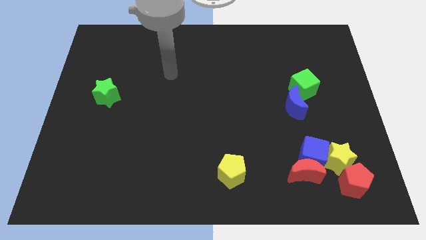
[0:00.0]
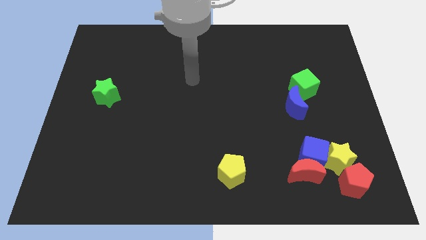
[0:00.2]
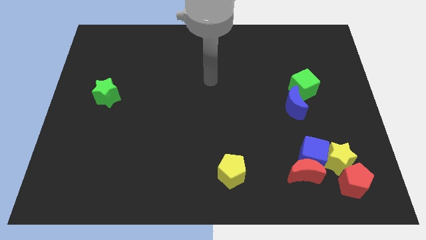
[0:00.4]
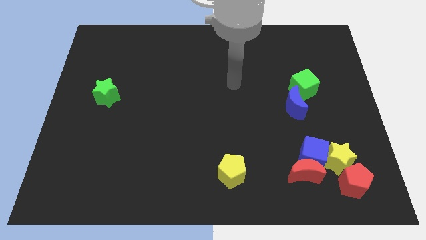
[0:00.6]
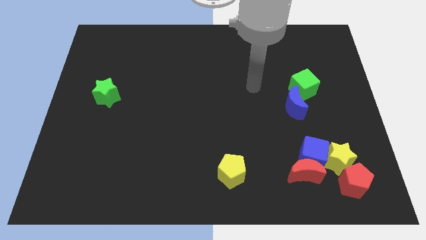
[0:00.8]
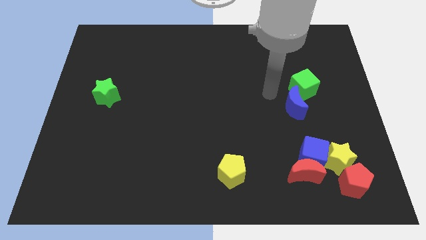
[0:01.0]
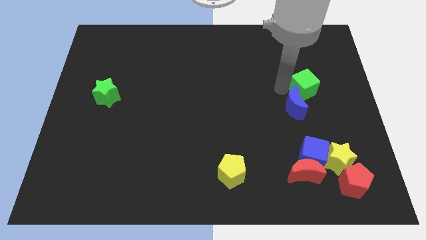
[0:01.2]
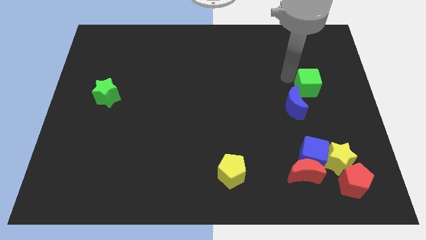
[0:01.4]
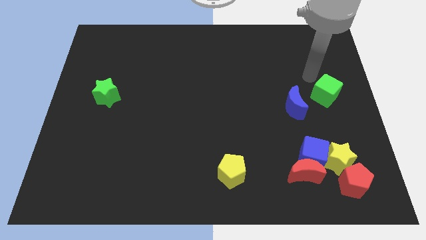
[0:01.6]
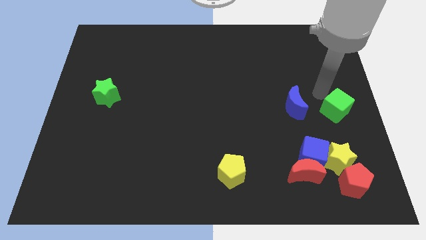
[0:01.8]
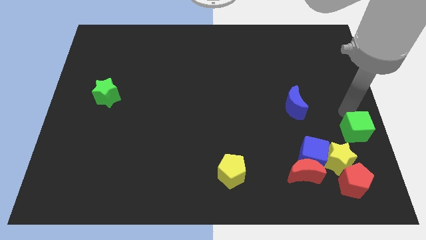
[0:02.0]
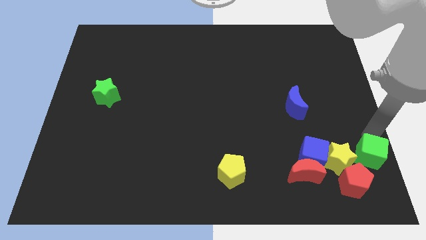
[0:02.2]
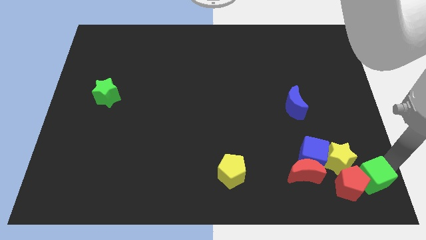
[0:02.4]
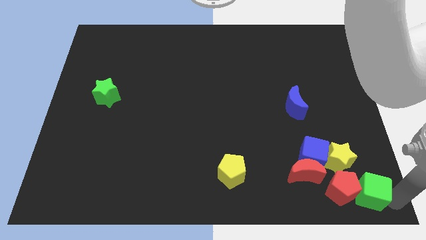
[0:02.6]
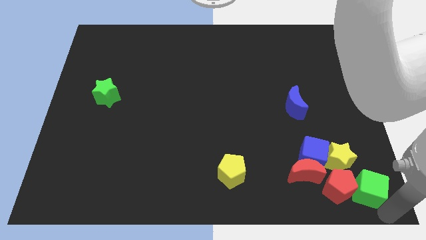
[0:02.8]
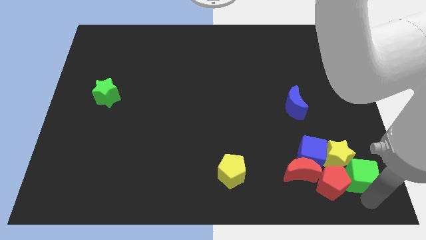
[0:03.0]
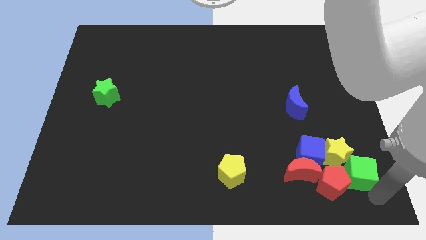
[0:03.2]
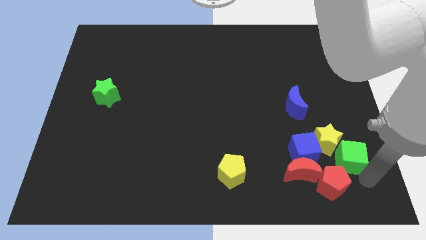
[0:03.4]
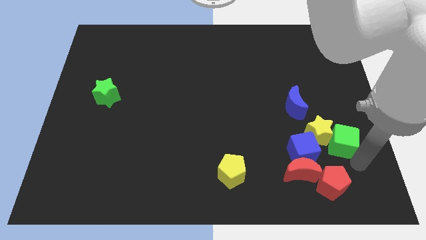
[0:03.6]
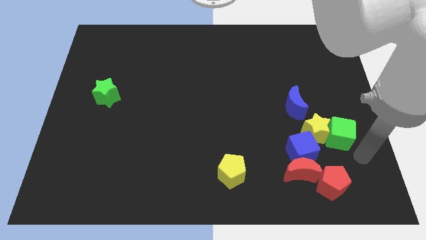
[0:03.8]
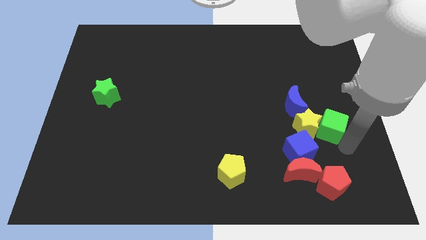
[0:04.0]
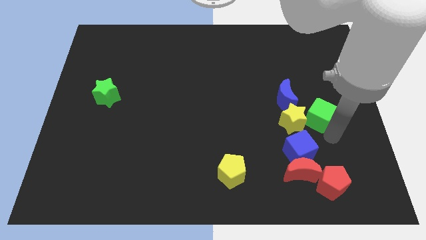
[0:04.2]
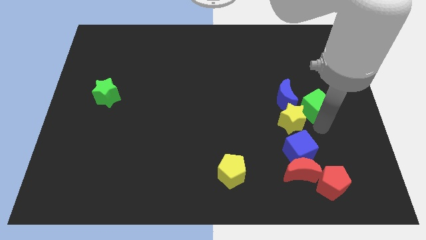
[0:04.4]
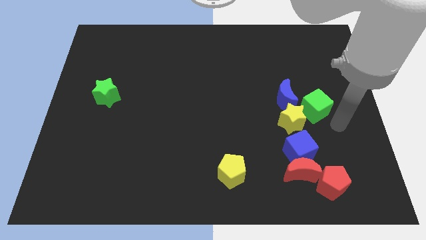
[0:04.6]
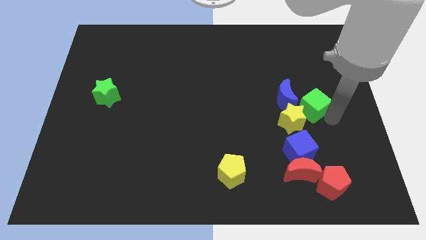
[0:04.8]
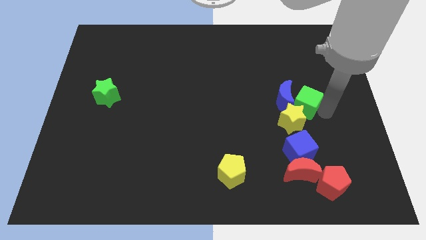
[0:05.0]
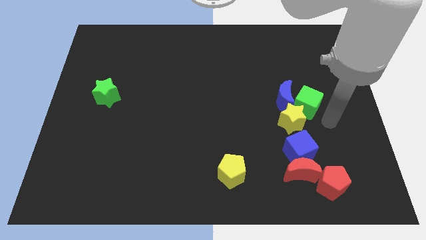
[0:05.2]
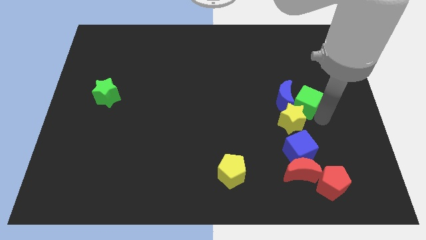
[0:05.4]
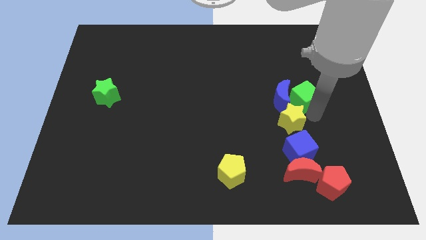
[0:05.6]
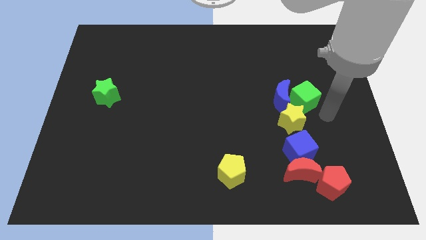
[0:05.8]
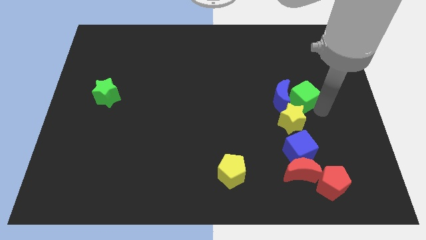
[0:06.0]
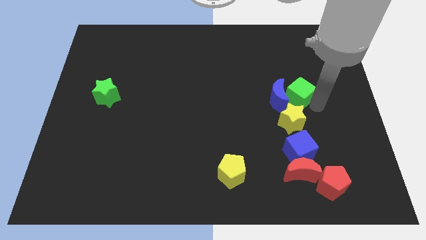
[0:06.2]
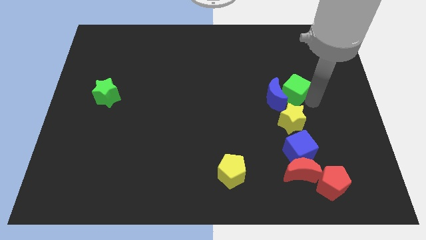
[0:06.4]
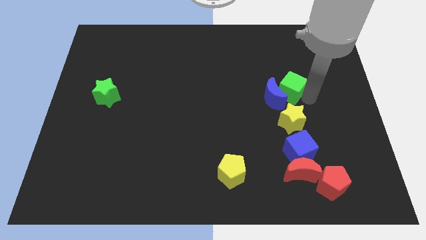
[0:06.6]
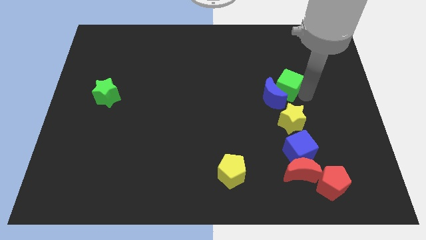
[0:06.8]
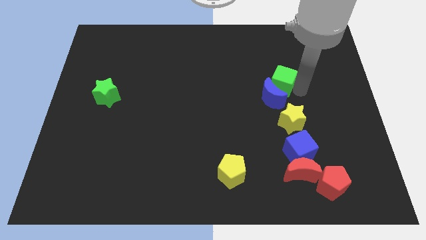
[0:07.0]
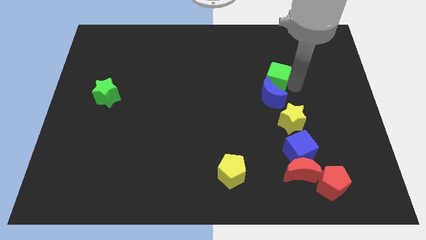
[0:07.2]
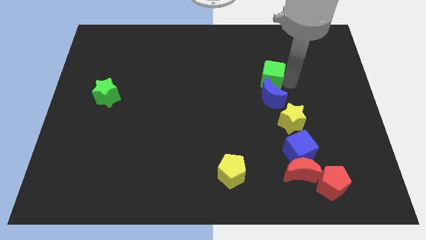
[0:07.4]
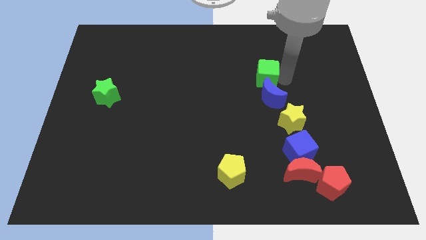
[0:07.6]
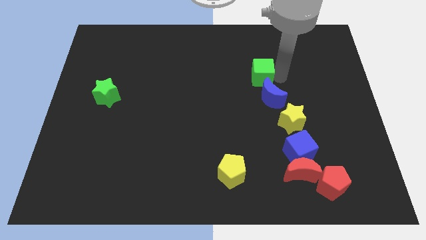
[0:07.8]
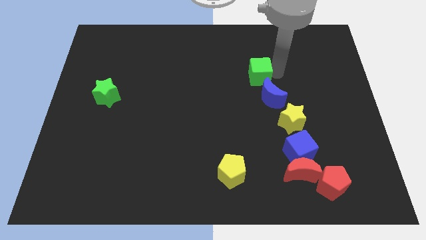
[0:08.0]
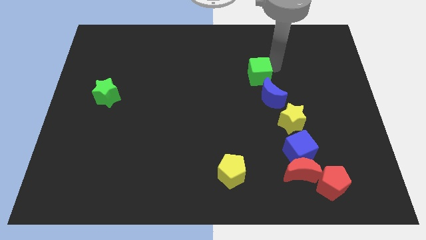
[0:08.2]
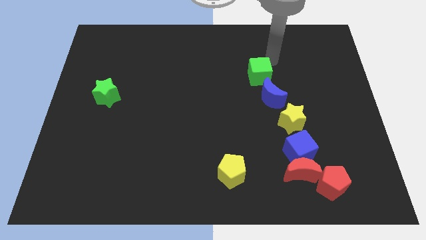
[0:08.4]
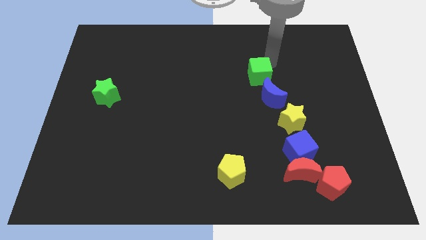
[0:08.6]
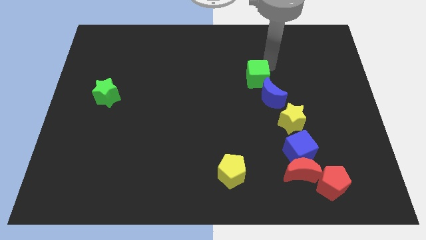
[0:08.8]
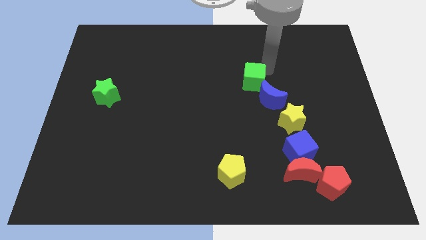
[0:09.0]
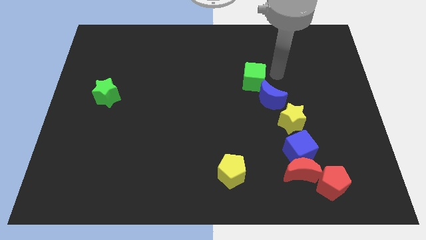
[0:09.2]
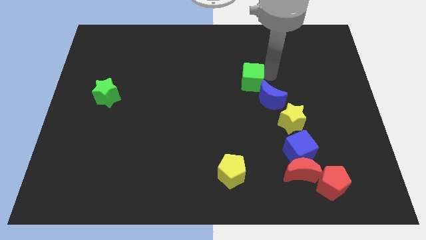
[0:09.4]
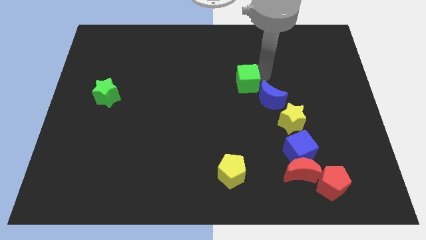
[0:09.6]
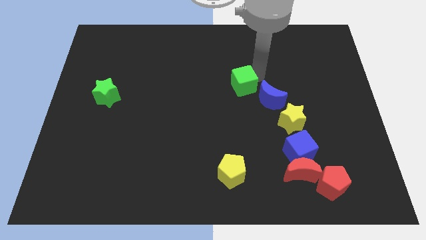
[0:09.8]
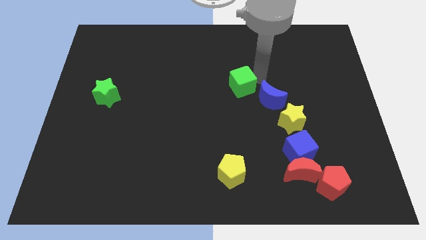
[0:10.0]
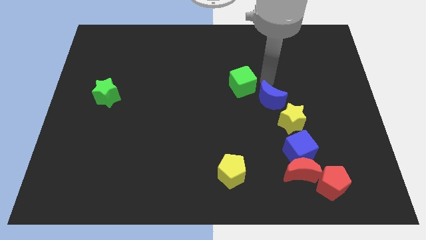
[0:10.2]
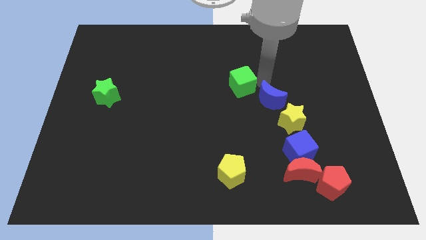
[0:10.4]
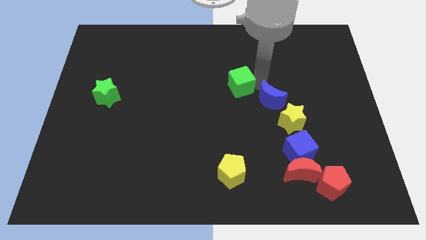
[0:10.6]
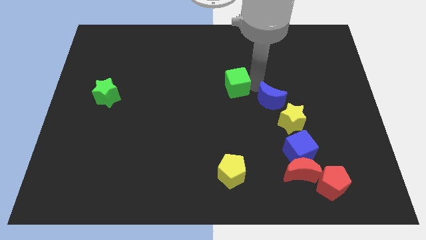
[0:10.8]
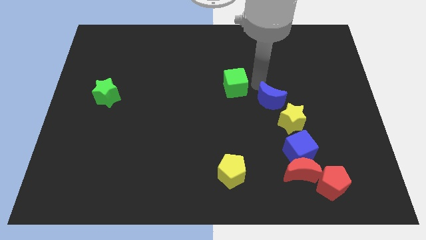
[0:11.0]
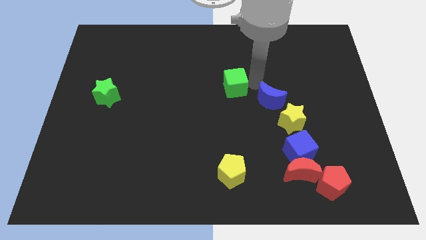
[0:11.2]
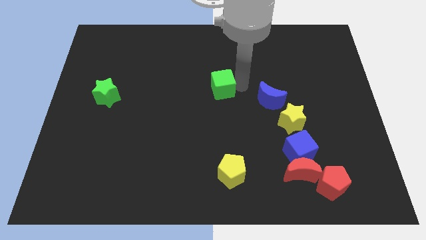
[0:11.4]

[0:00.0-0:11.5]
move the green cube to the left

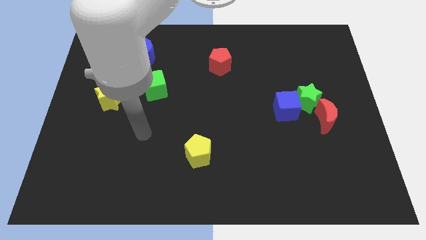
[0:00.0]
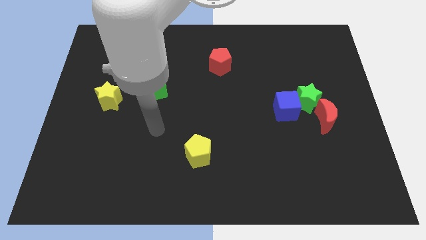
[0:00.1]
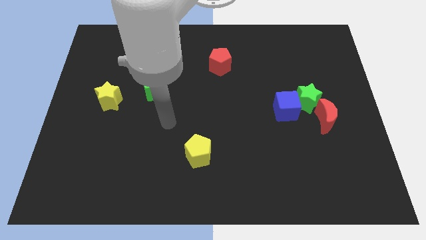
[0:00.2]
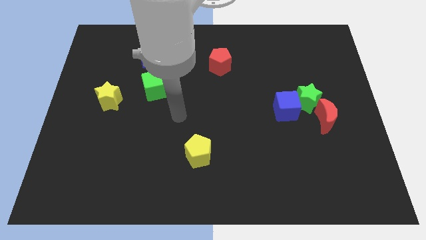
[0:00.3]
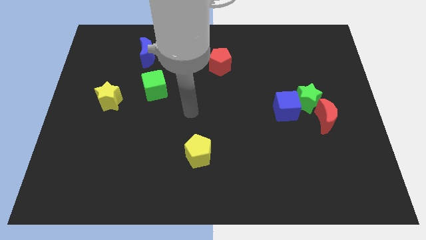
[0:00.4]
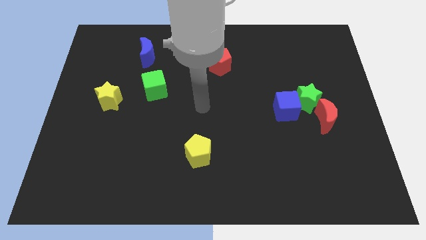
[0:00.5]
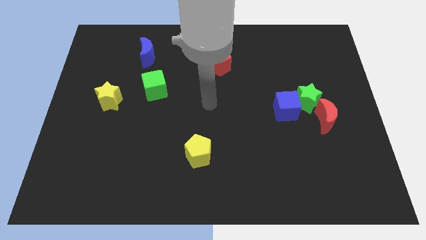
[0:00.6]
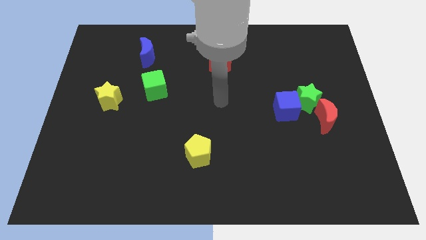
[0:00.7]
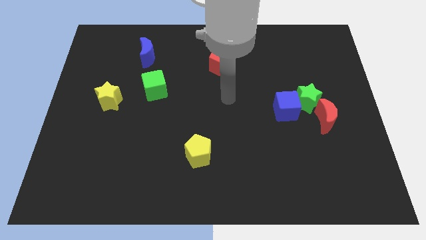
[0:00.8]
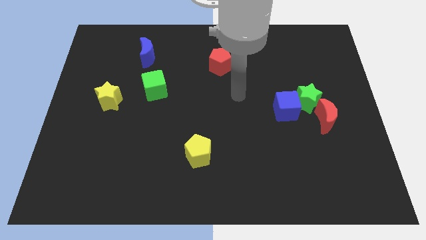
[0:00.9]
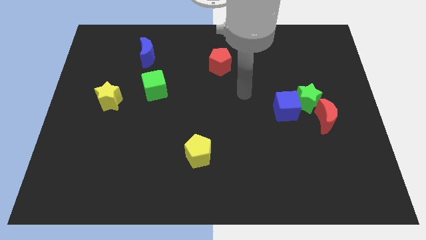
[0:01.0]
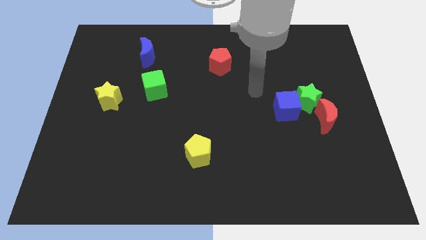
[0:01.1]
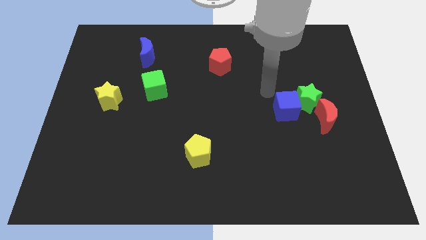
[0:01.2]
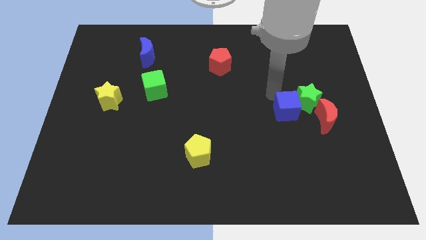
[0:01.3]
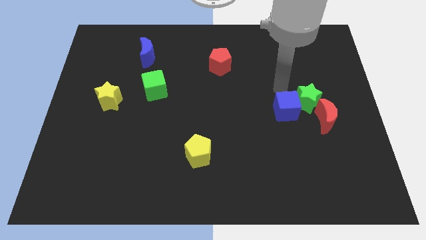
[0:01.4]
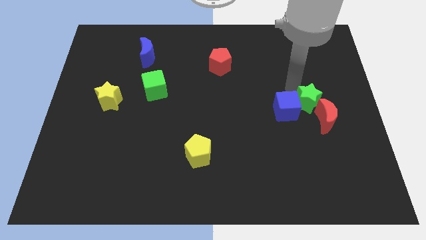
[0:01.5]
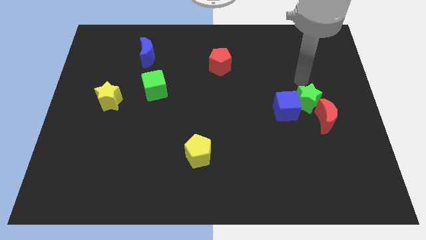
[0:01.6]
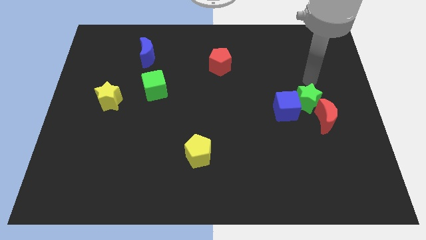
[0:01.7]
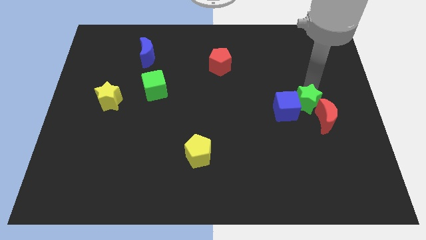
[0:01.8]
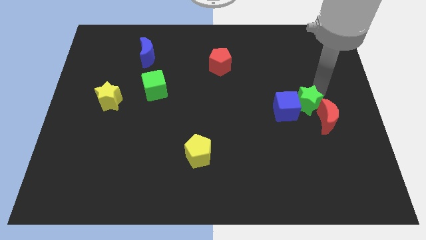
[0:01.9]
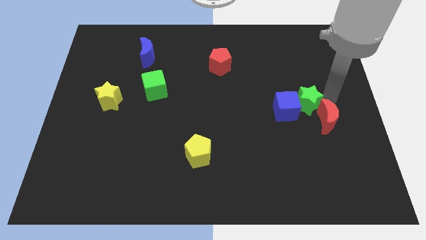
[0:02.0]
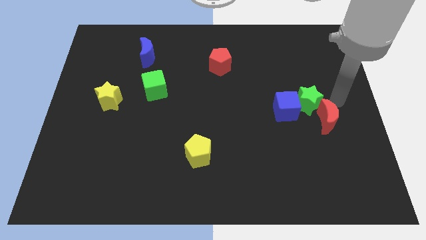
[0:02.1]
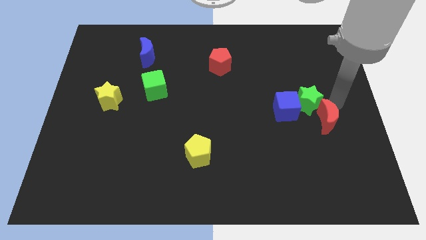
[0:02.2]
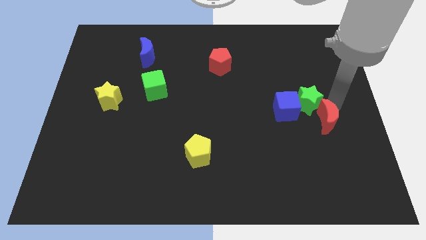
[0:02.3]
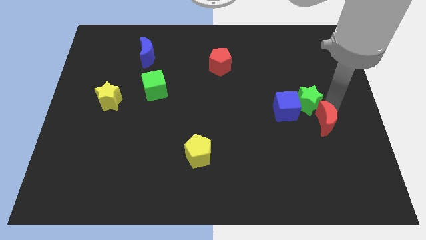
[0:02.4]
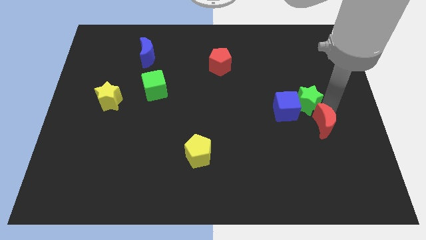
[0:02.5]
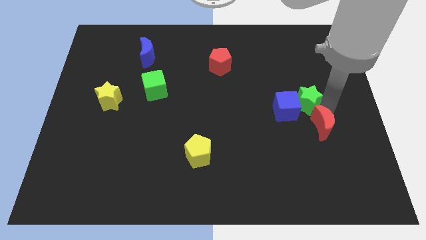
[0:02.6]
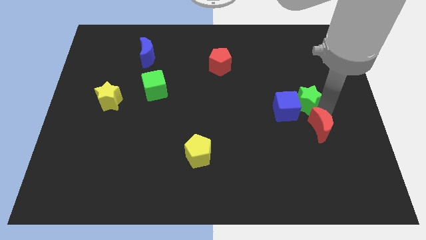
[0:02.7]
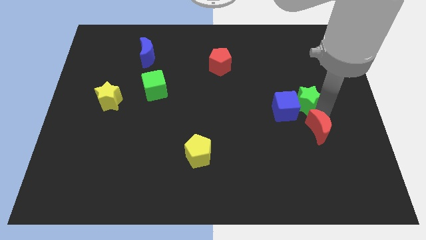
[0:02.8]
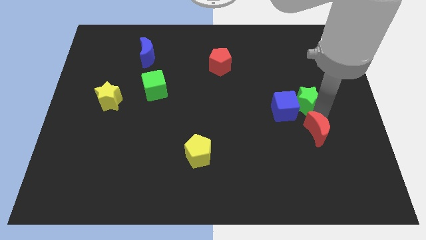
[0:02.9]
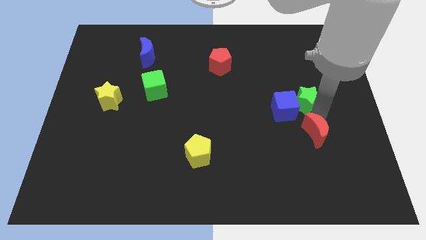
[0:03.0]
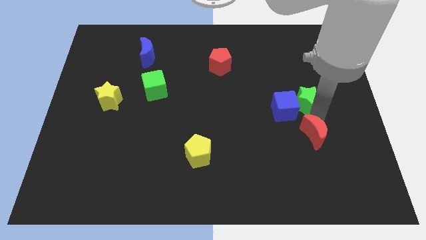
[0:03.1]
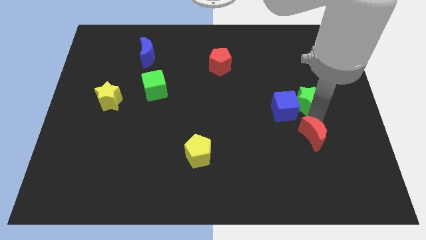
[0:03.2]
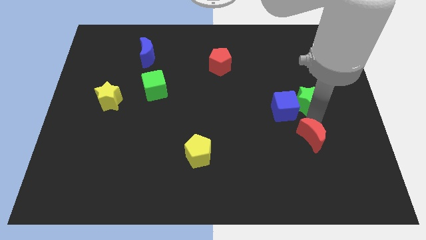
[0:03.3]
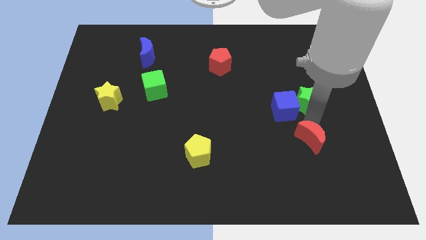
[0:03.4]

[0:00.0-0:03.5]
push the red moon a little bit down and to the left diagonally
